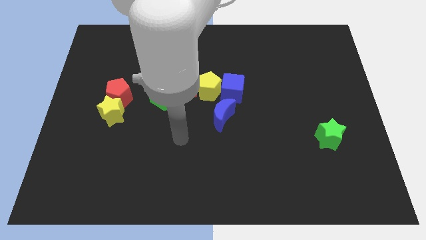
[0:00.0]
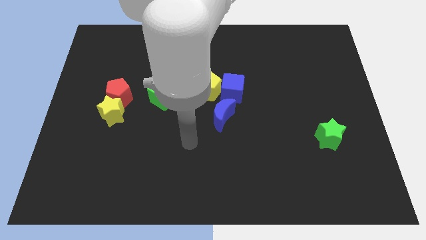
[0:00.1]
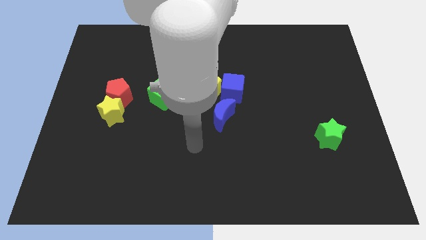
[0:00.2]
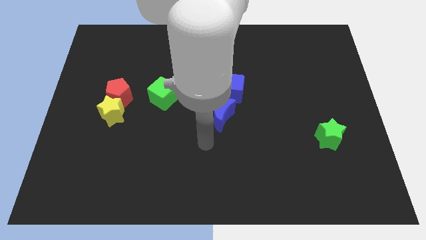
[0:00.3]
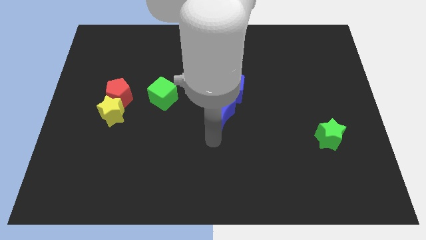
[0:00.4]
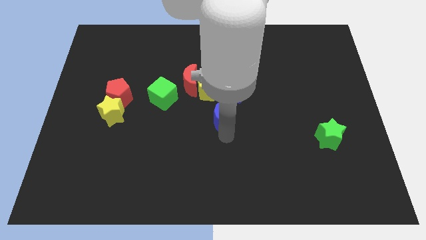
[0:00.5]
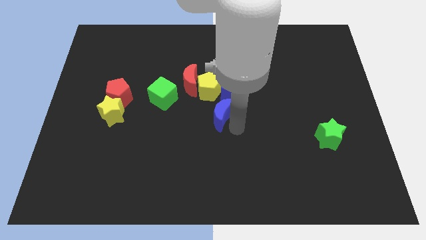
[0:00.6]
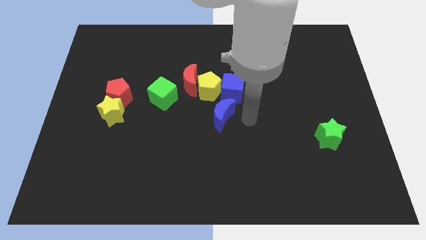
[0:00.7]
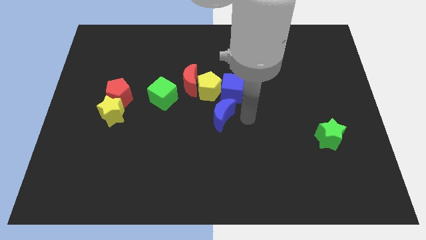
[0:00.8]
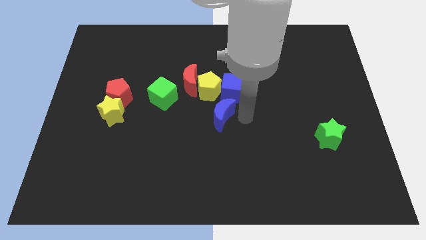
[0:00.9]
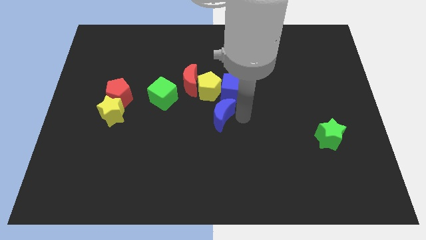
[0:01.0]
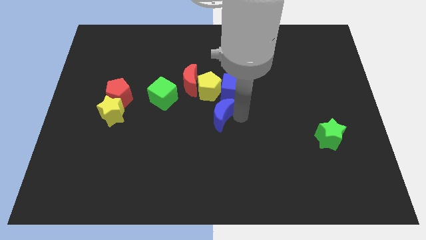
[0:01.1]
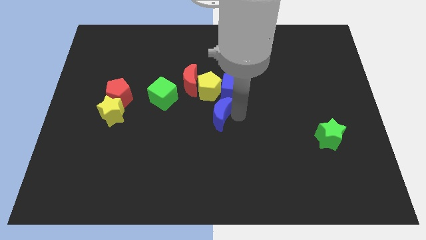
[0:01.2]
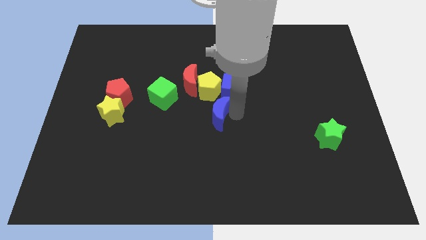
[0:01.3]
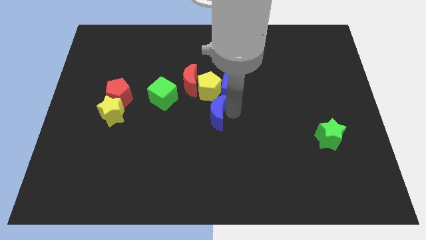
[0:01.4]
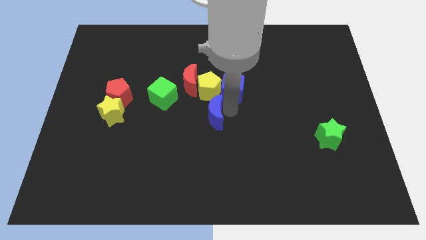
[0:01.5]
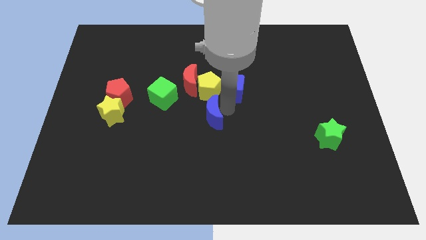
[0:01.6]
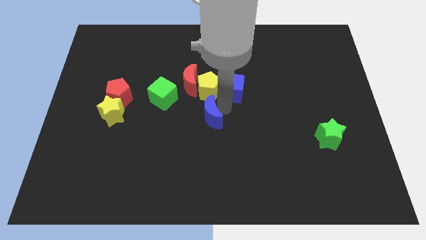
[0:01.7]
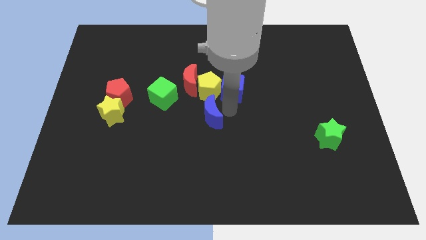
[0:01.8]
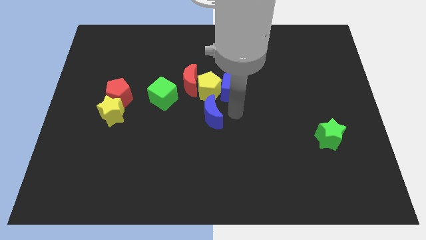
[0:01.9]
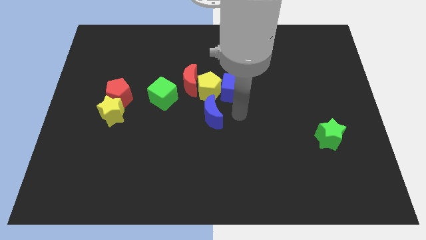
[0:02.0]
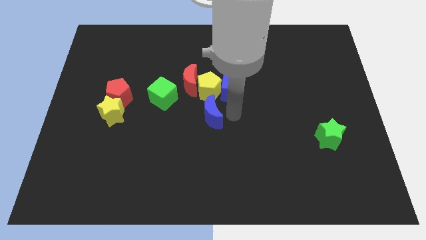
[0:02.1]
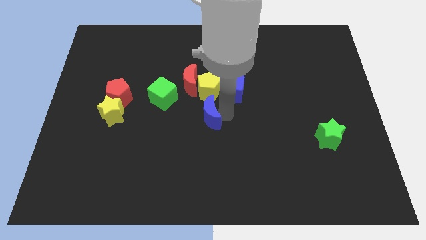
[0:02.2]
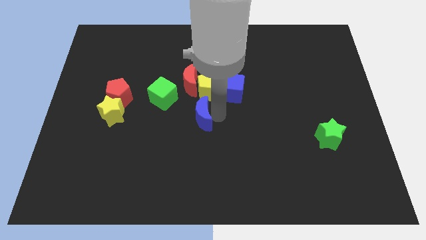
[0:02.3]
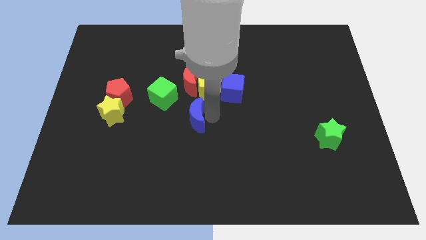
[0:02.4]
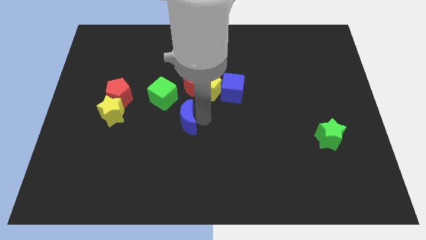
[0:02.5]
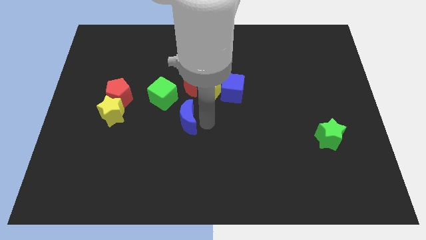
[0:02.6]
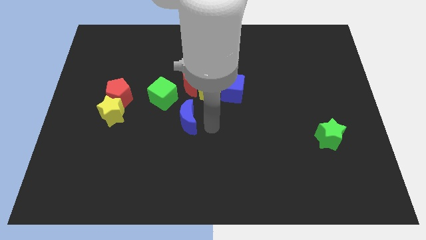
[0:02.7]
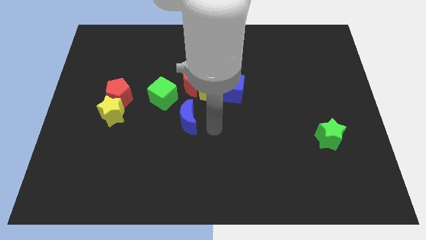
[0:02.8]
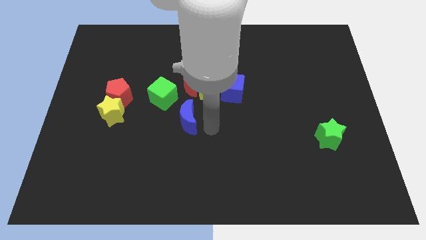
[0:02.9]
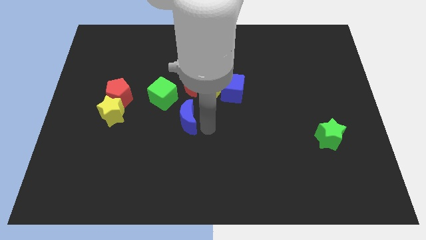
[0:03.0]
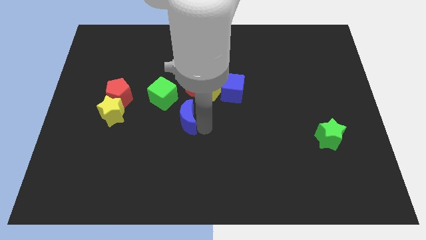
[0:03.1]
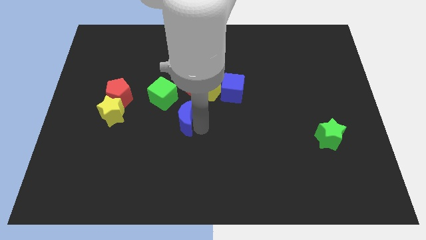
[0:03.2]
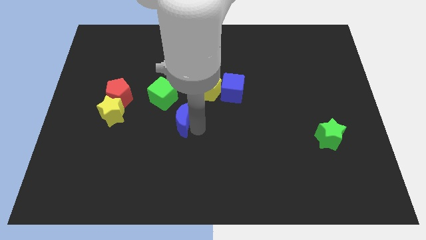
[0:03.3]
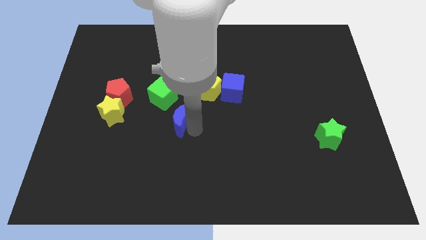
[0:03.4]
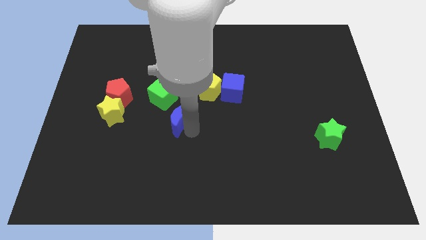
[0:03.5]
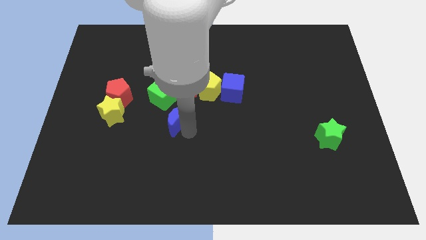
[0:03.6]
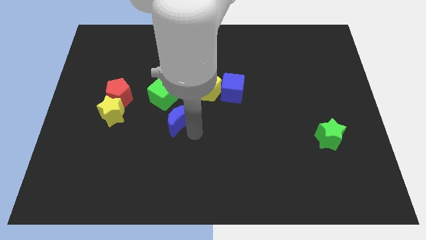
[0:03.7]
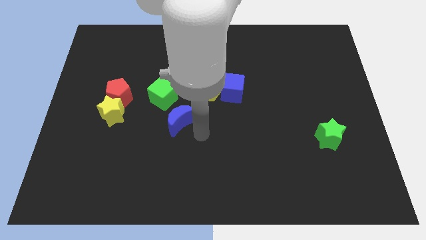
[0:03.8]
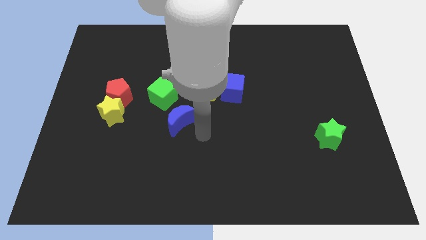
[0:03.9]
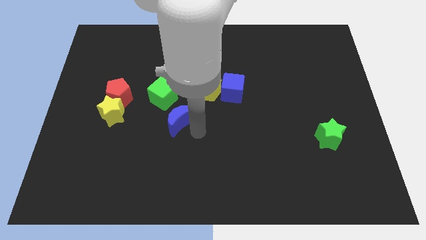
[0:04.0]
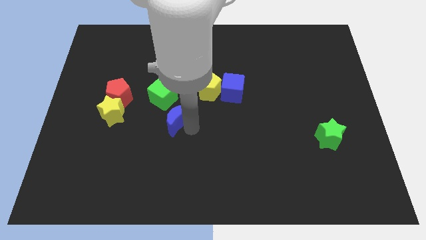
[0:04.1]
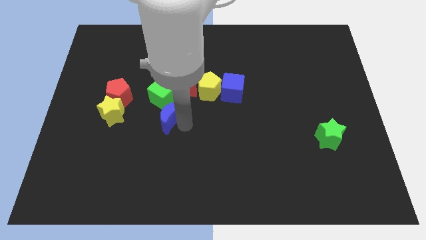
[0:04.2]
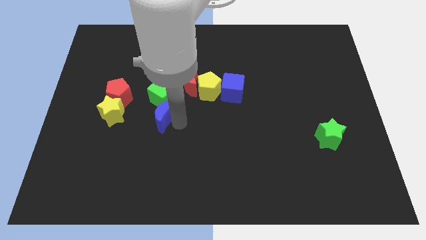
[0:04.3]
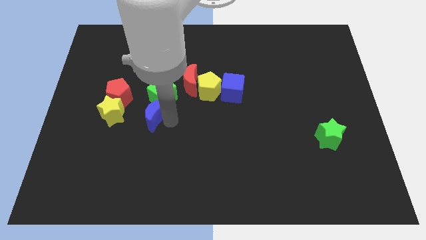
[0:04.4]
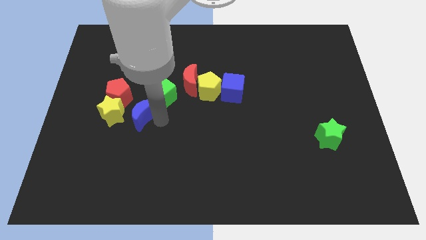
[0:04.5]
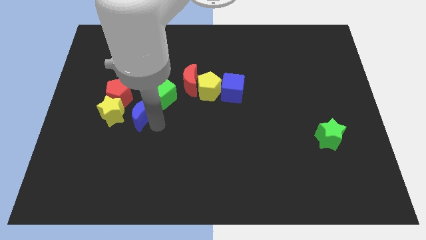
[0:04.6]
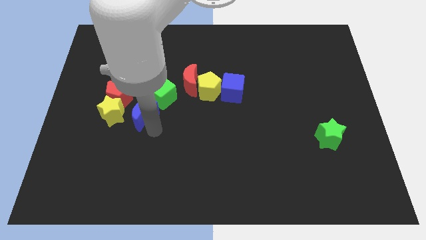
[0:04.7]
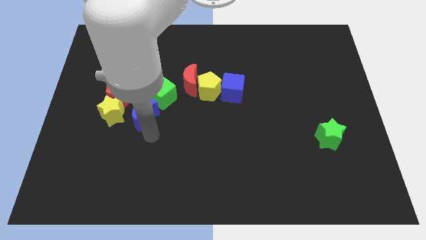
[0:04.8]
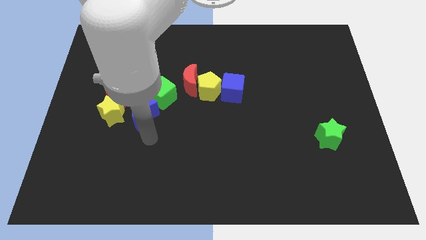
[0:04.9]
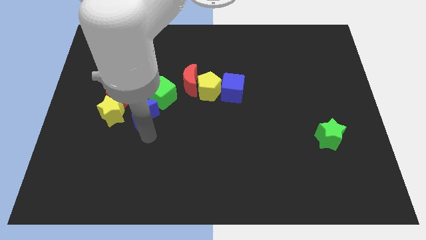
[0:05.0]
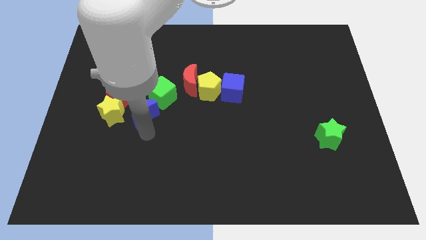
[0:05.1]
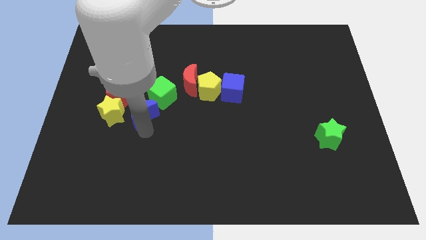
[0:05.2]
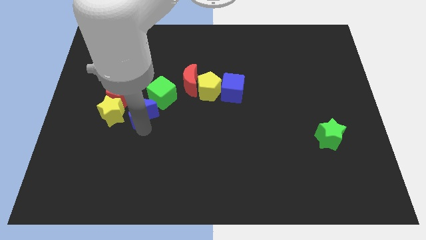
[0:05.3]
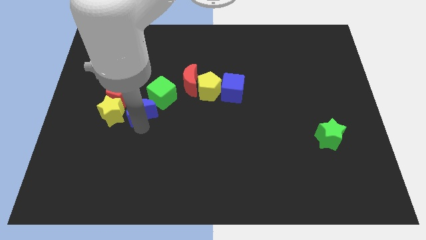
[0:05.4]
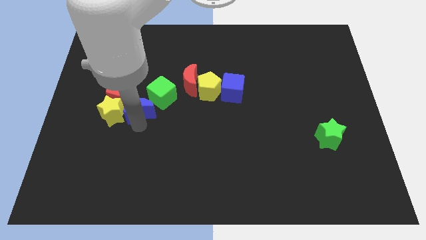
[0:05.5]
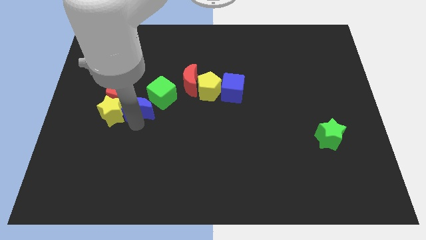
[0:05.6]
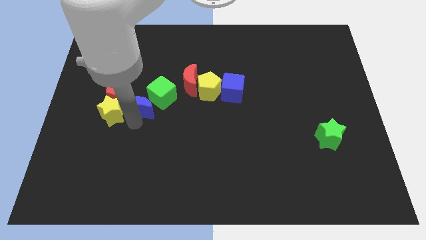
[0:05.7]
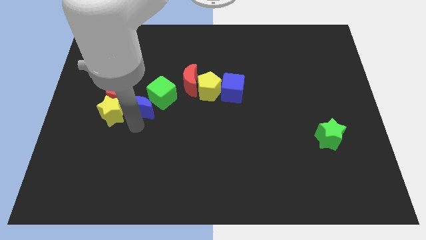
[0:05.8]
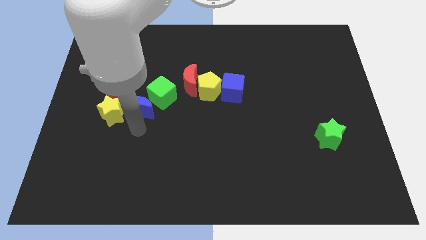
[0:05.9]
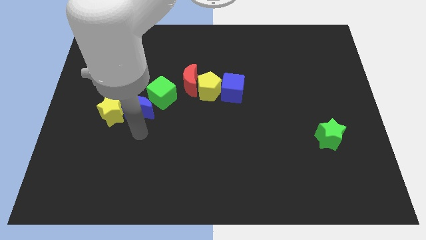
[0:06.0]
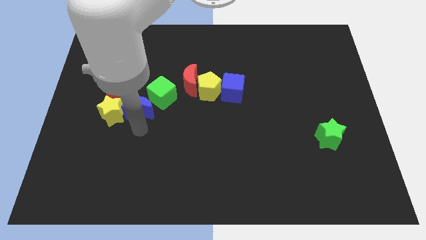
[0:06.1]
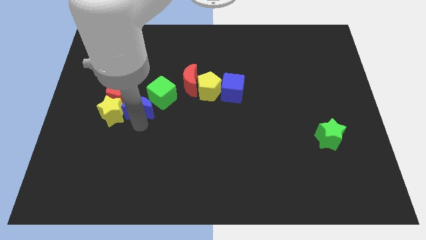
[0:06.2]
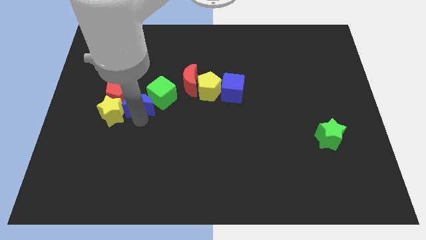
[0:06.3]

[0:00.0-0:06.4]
slide the blue moon a bit up and to the left

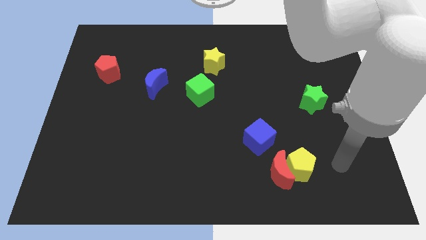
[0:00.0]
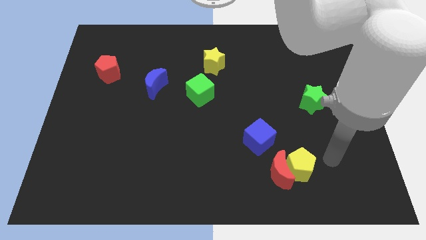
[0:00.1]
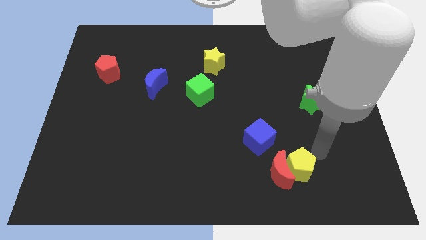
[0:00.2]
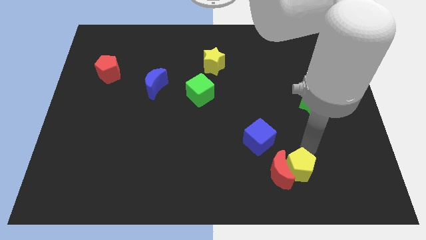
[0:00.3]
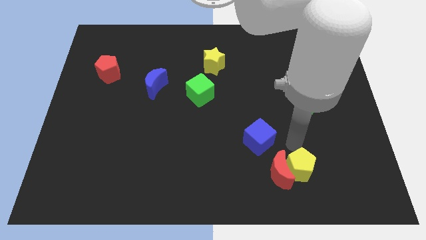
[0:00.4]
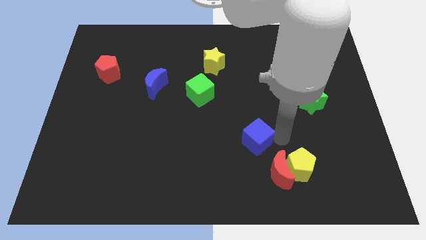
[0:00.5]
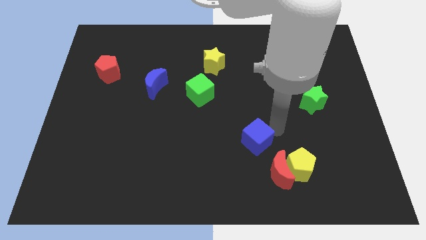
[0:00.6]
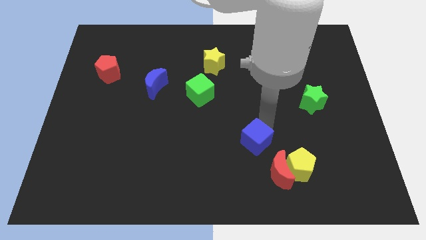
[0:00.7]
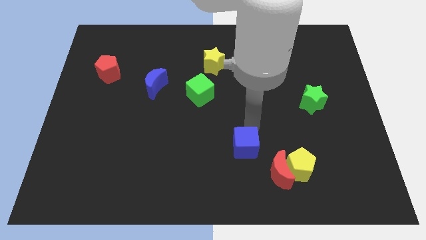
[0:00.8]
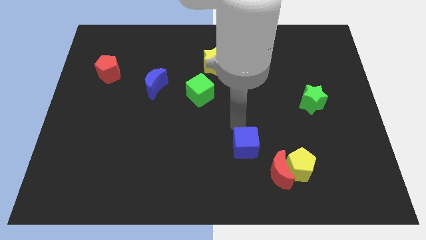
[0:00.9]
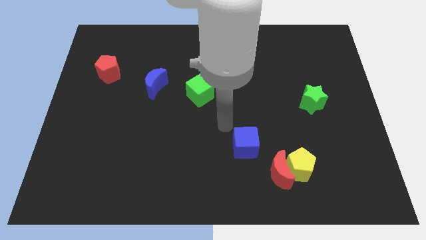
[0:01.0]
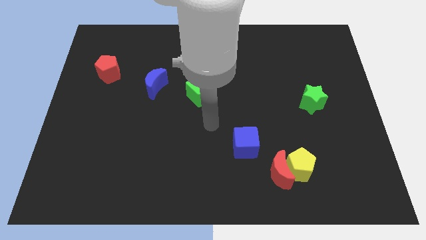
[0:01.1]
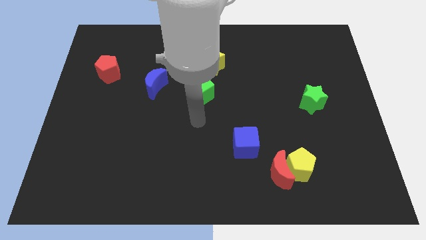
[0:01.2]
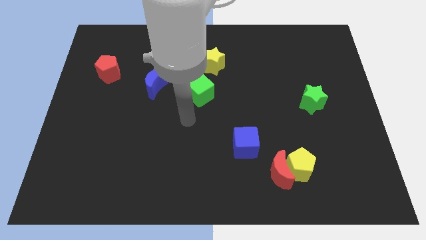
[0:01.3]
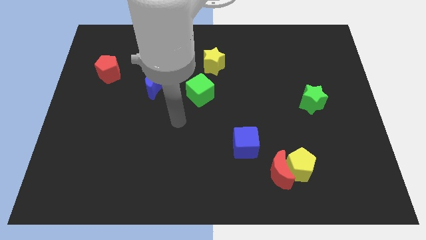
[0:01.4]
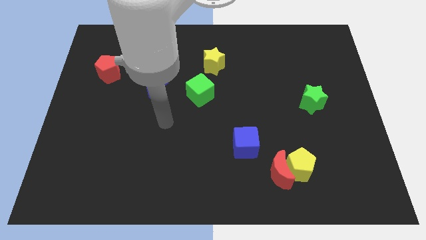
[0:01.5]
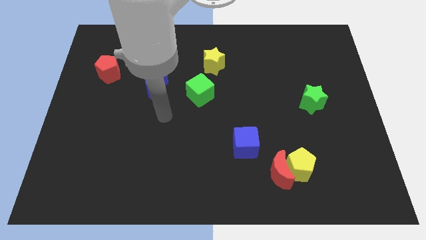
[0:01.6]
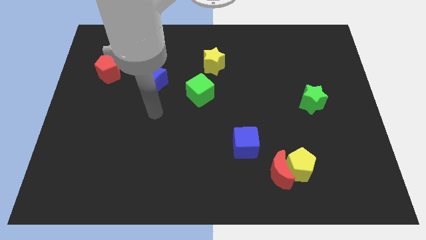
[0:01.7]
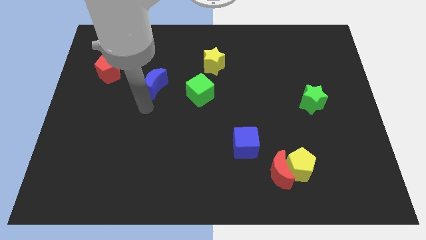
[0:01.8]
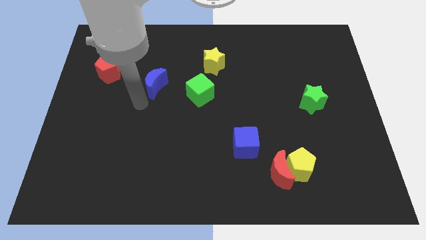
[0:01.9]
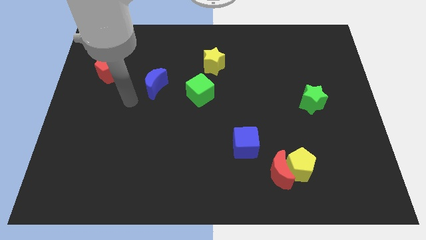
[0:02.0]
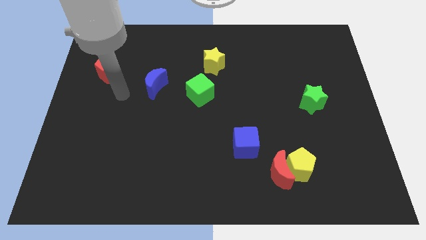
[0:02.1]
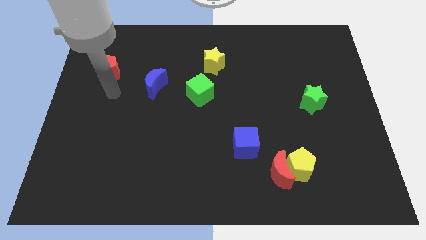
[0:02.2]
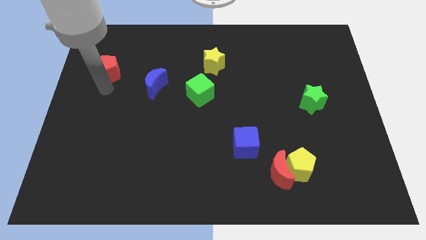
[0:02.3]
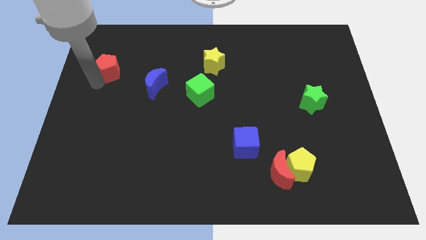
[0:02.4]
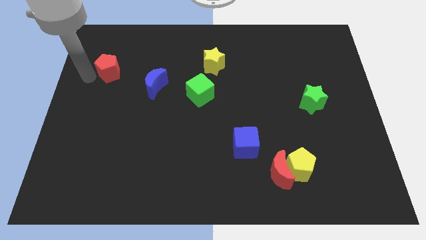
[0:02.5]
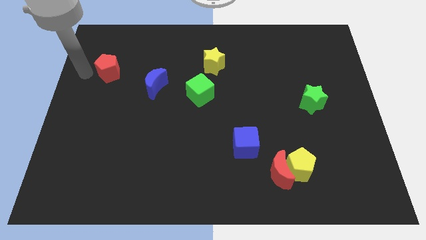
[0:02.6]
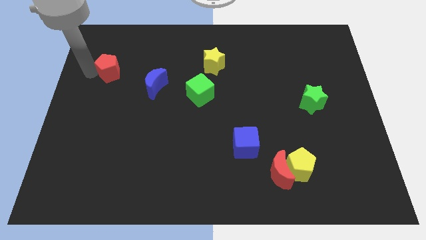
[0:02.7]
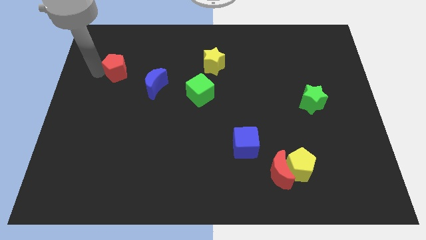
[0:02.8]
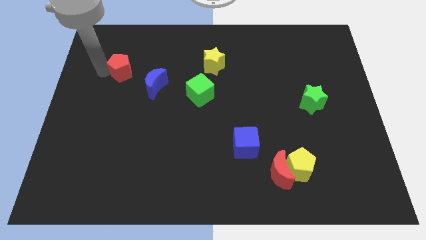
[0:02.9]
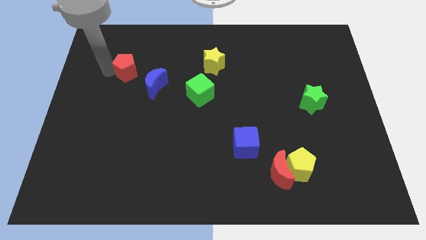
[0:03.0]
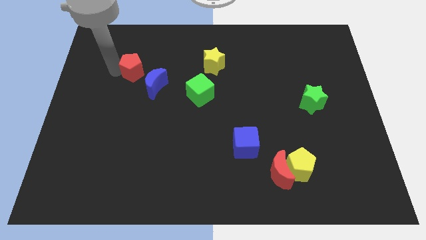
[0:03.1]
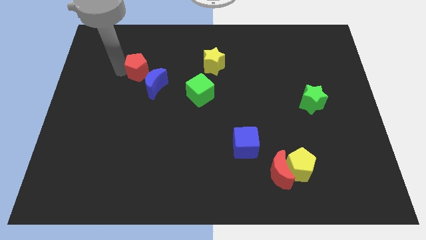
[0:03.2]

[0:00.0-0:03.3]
move the red pentagon slightly right
